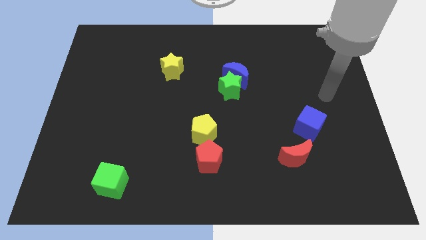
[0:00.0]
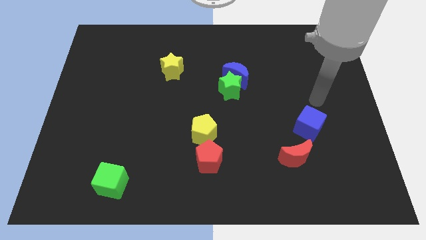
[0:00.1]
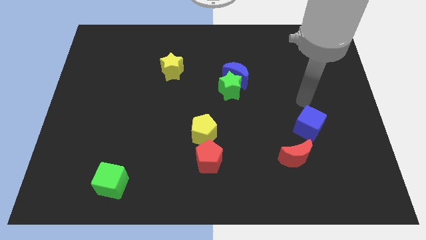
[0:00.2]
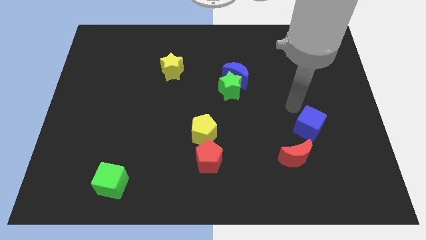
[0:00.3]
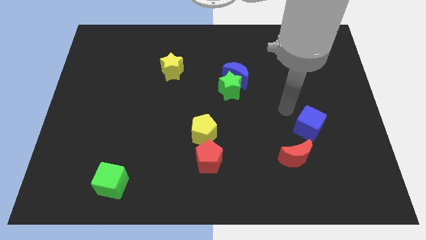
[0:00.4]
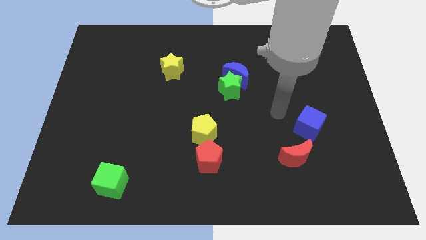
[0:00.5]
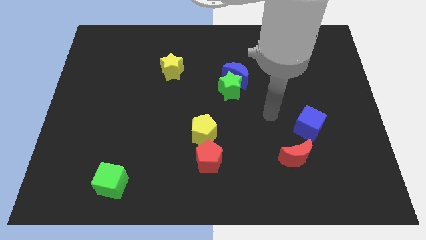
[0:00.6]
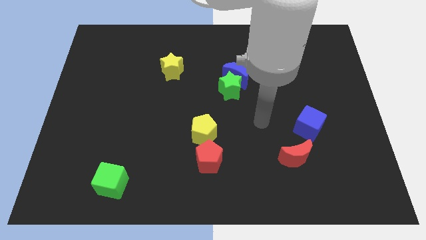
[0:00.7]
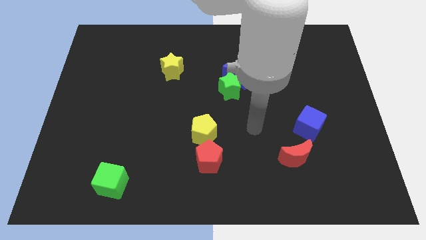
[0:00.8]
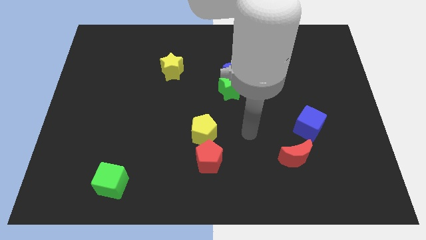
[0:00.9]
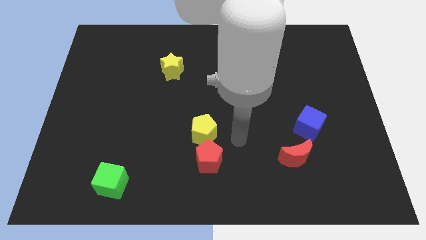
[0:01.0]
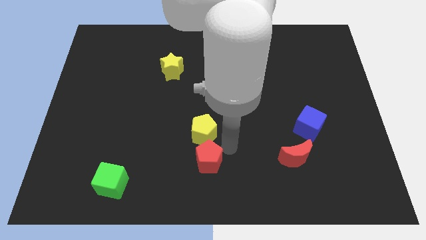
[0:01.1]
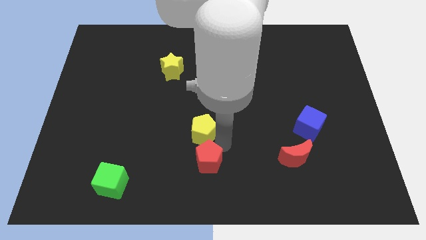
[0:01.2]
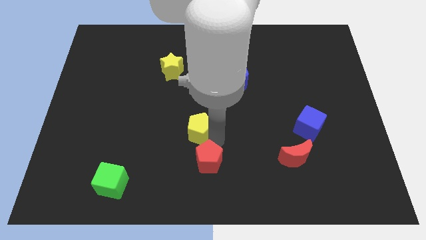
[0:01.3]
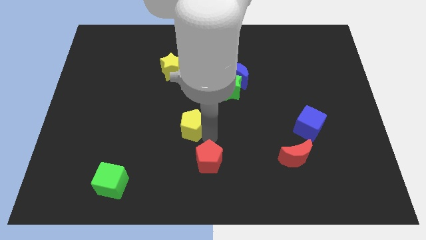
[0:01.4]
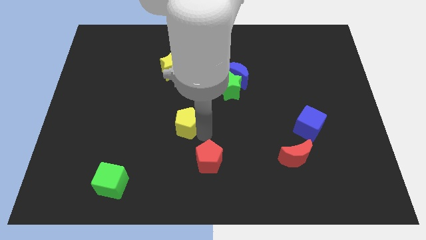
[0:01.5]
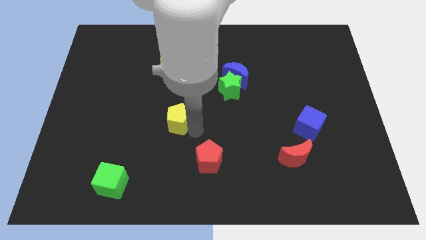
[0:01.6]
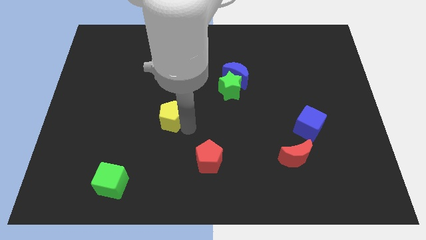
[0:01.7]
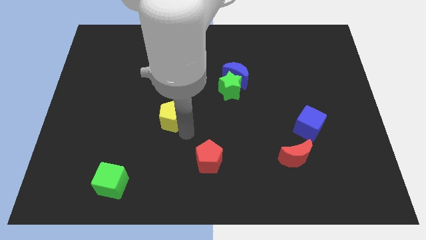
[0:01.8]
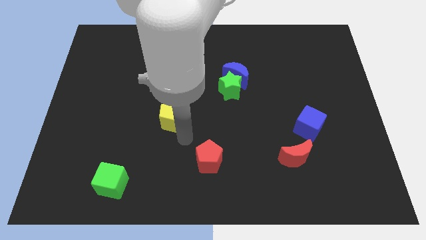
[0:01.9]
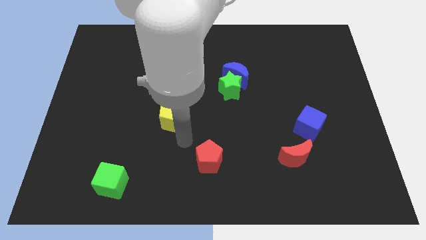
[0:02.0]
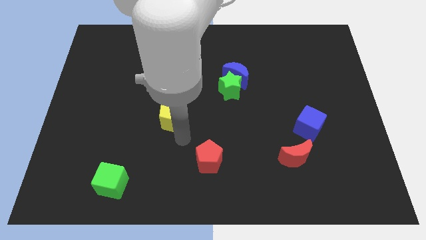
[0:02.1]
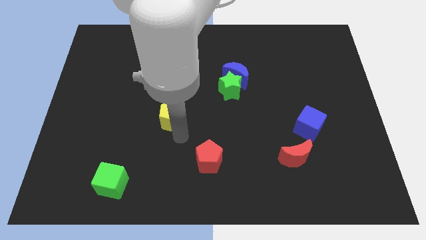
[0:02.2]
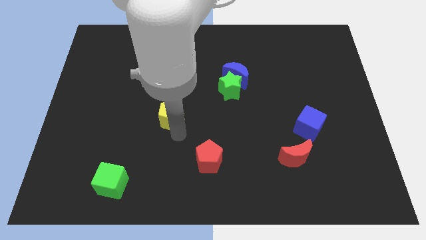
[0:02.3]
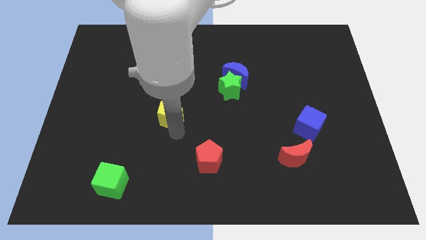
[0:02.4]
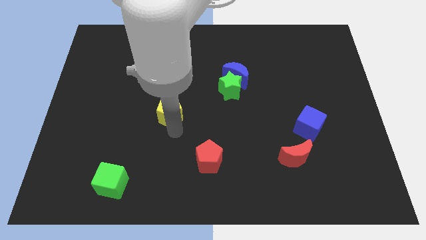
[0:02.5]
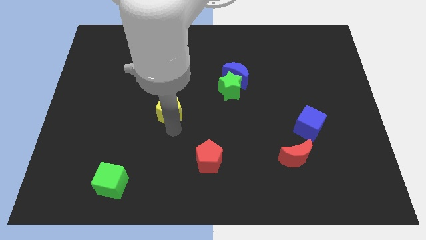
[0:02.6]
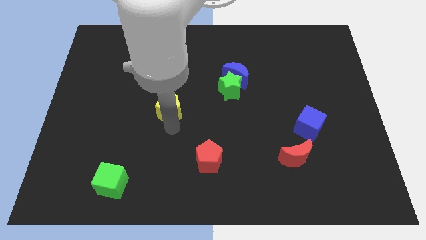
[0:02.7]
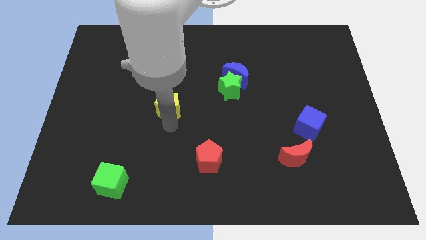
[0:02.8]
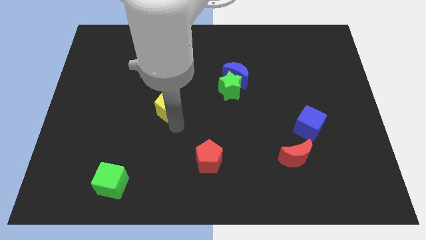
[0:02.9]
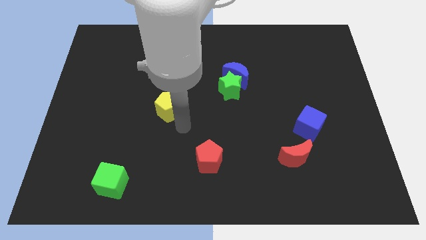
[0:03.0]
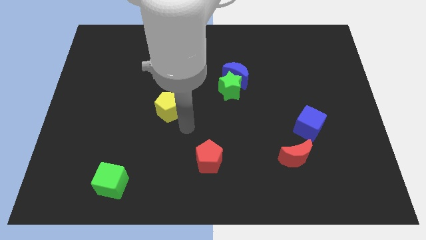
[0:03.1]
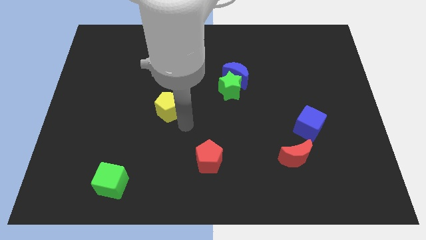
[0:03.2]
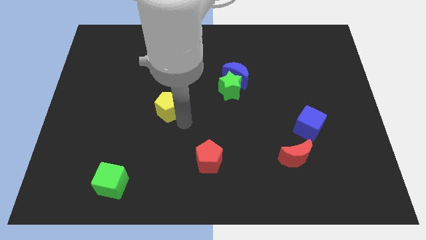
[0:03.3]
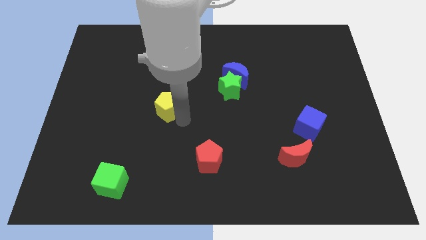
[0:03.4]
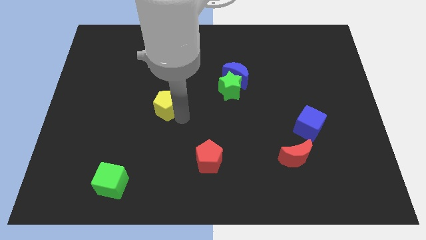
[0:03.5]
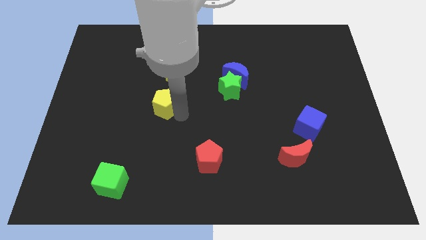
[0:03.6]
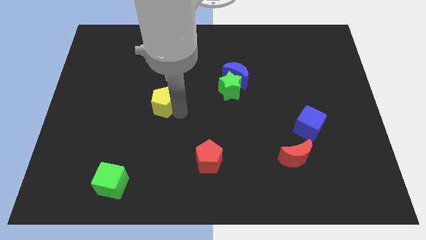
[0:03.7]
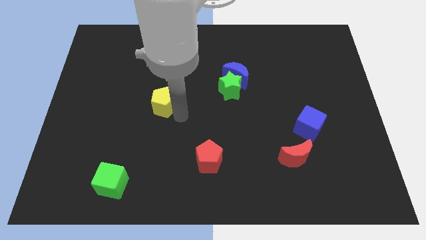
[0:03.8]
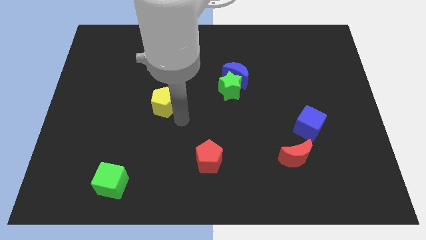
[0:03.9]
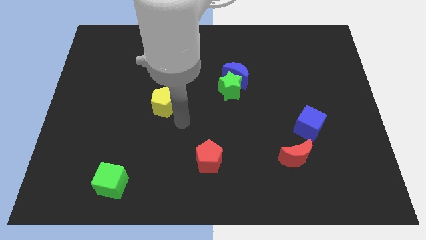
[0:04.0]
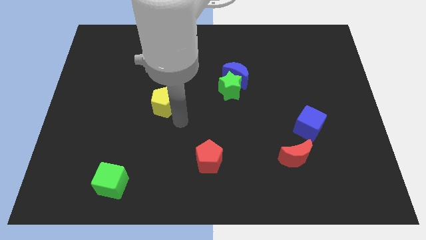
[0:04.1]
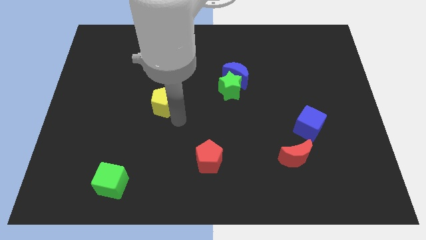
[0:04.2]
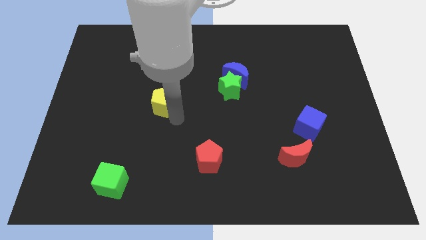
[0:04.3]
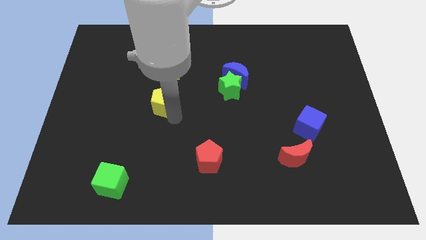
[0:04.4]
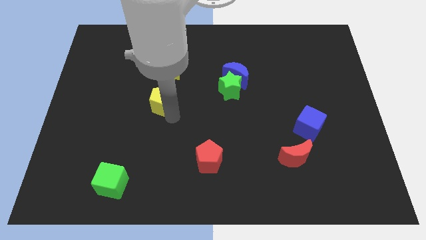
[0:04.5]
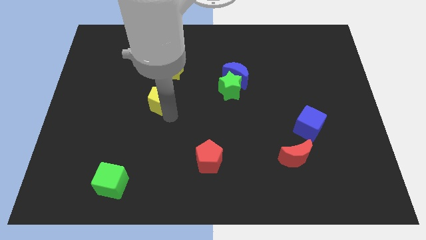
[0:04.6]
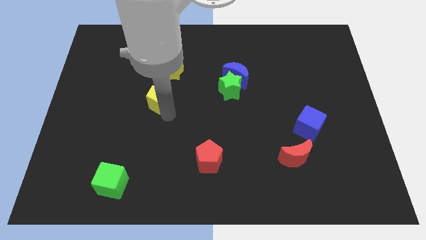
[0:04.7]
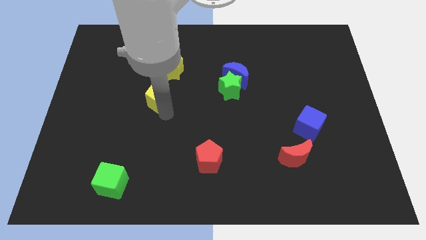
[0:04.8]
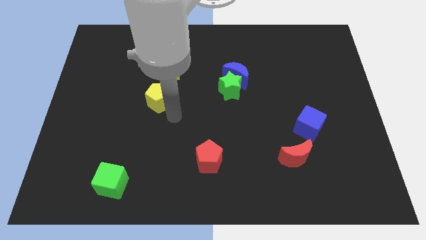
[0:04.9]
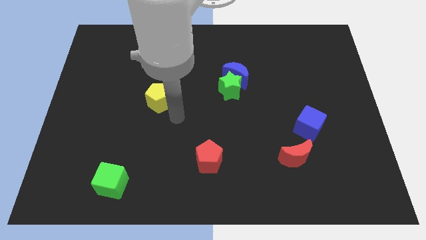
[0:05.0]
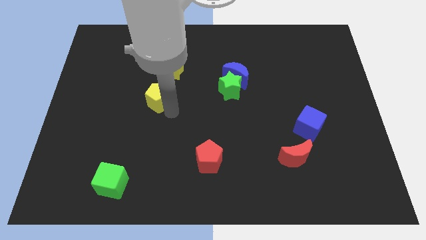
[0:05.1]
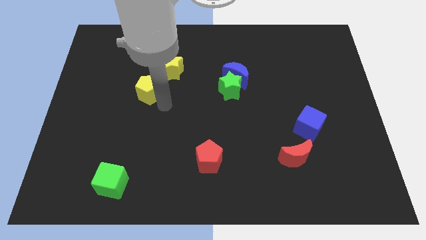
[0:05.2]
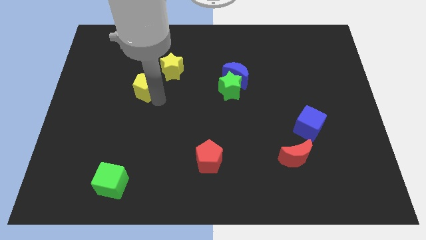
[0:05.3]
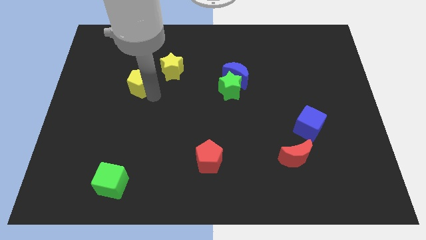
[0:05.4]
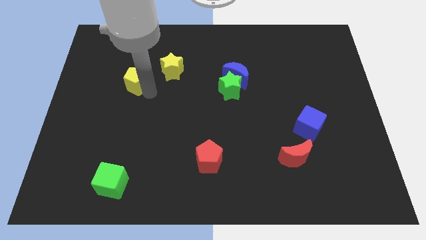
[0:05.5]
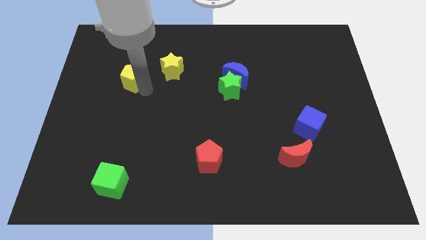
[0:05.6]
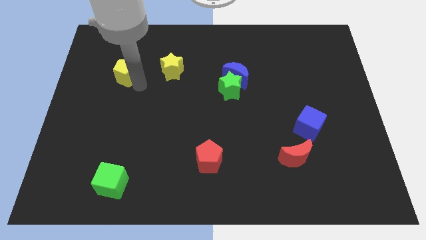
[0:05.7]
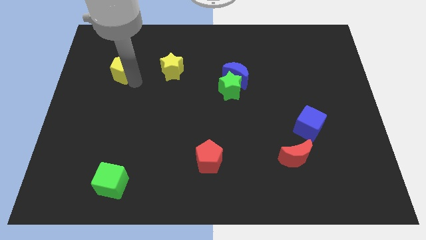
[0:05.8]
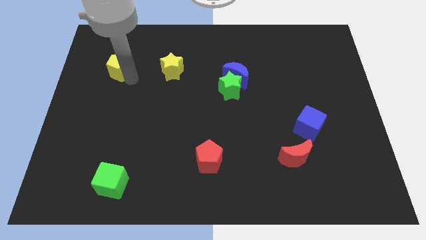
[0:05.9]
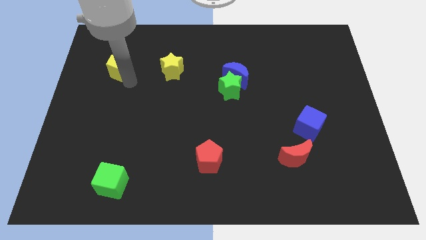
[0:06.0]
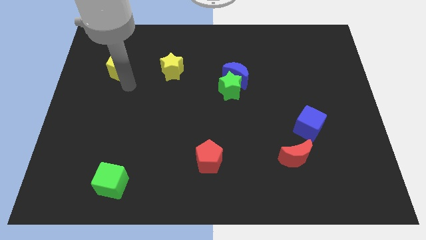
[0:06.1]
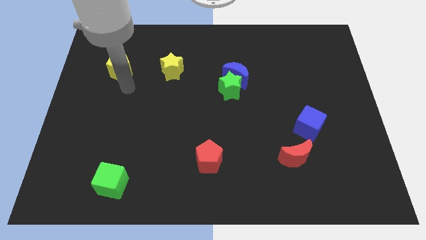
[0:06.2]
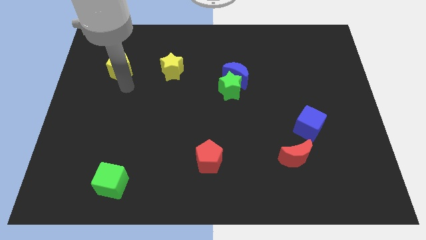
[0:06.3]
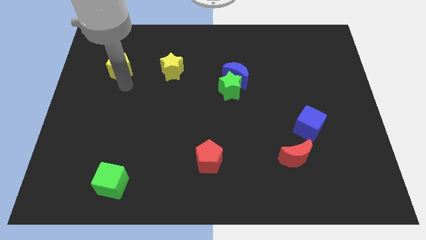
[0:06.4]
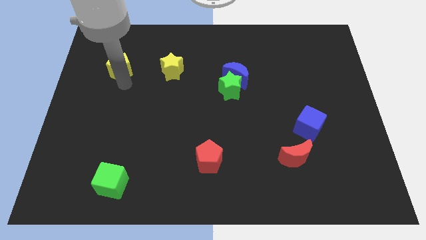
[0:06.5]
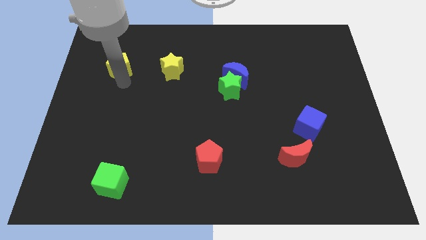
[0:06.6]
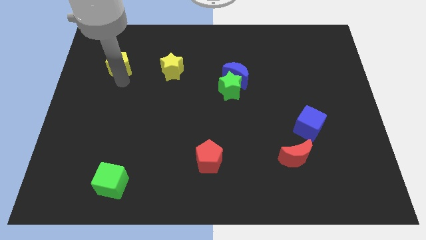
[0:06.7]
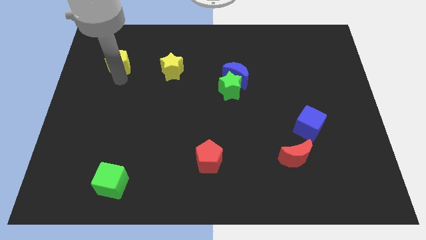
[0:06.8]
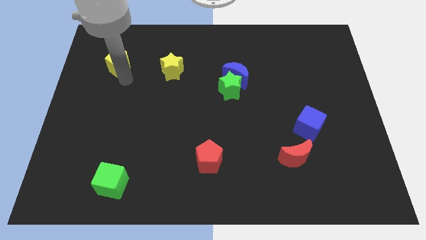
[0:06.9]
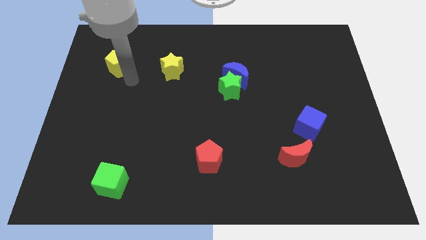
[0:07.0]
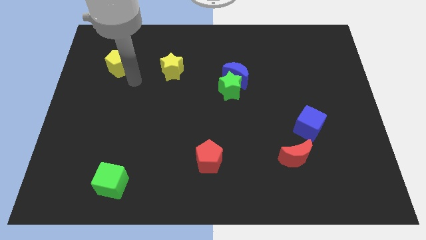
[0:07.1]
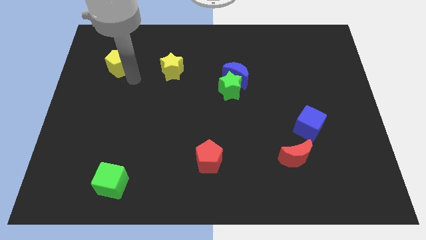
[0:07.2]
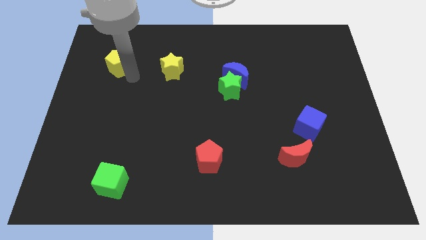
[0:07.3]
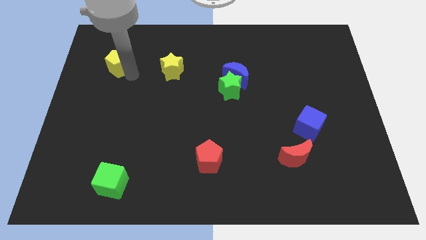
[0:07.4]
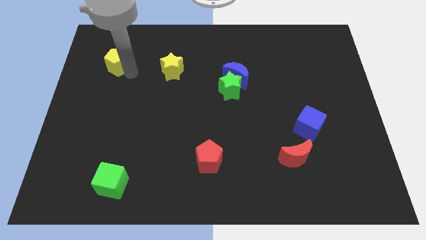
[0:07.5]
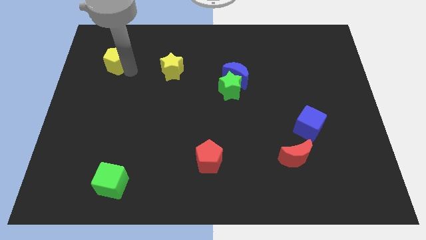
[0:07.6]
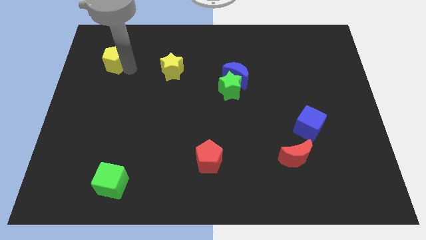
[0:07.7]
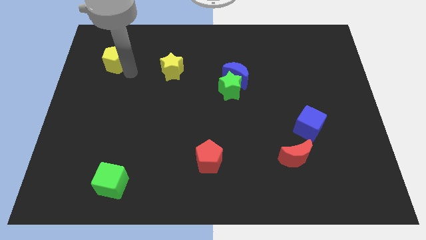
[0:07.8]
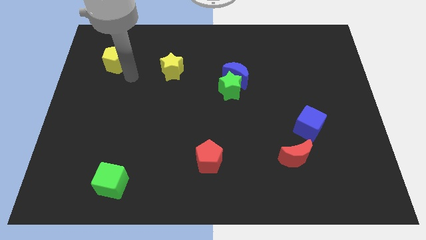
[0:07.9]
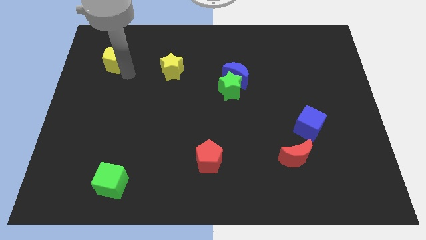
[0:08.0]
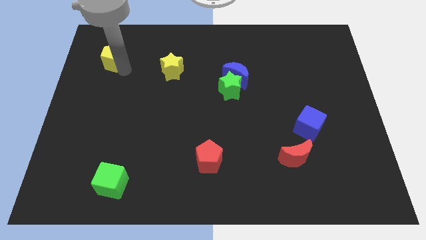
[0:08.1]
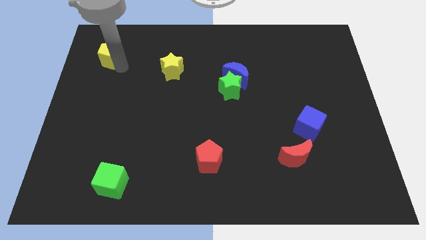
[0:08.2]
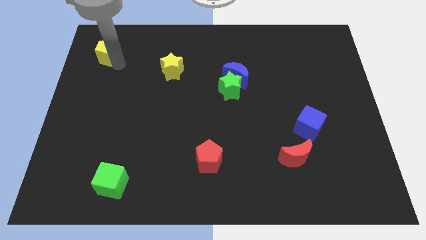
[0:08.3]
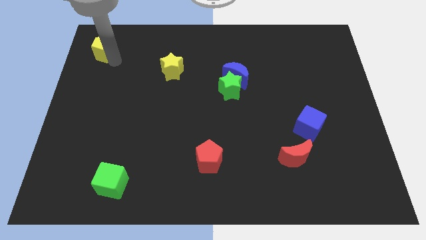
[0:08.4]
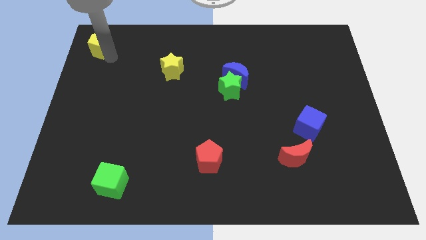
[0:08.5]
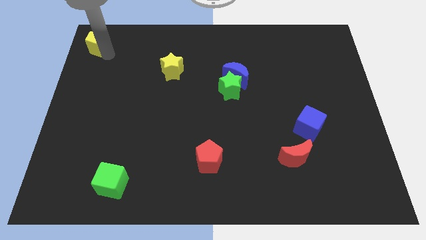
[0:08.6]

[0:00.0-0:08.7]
push the yellow pentagon to the top left
